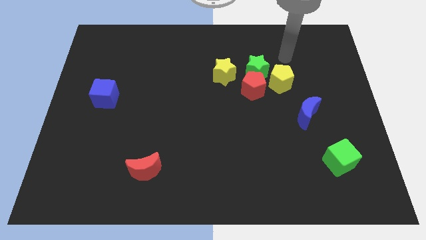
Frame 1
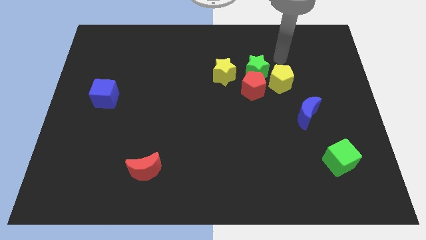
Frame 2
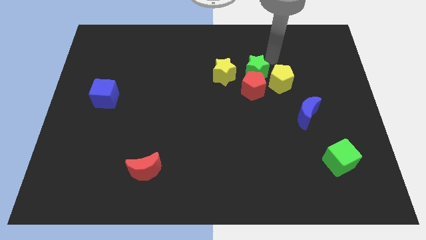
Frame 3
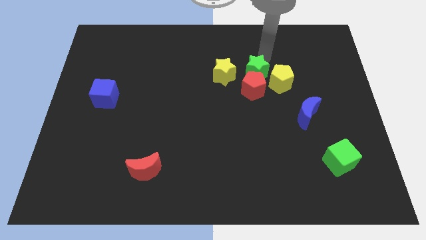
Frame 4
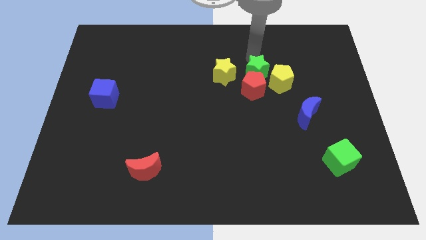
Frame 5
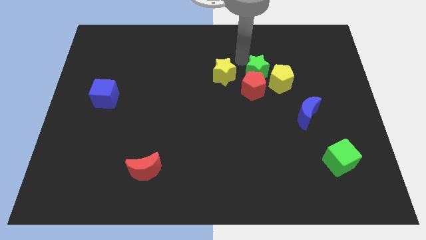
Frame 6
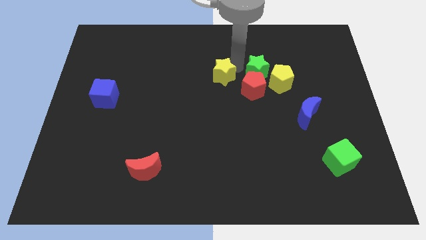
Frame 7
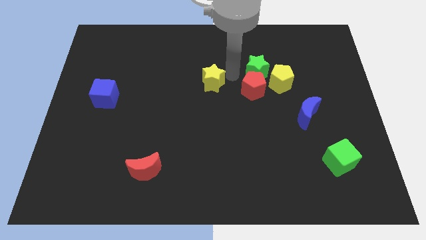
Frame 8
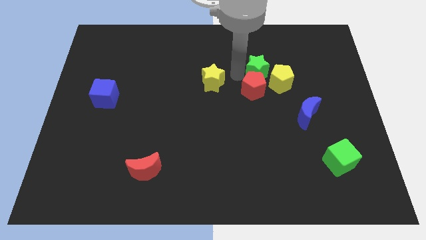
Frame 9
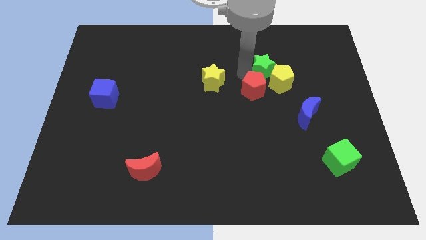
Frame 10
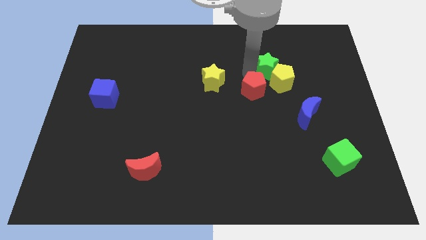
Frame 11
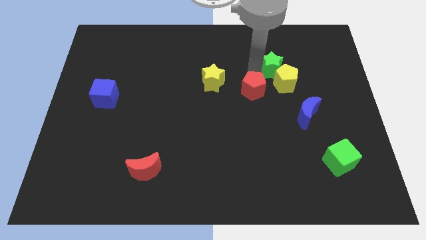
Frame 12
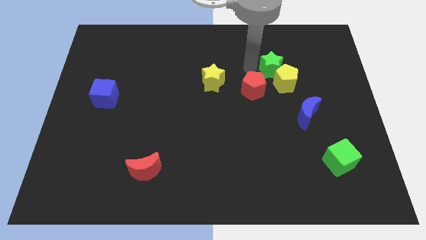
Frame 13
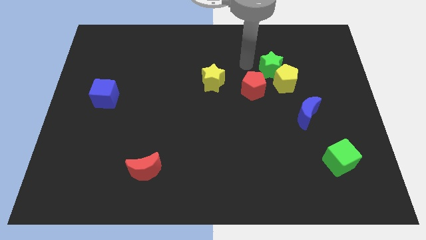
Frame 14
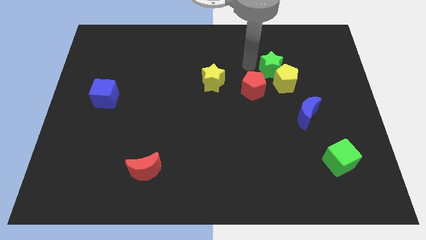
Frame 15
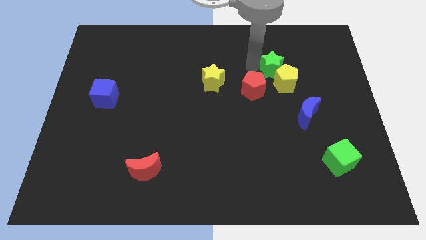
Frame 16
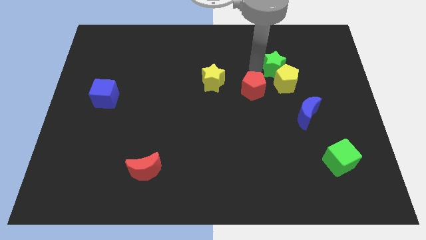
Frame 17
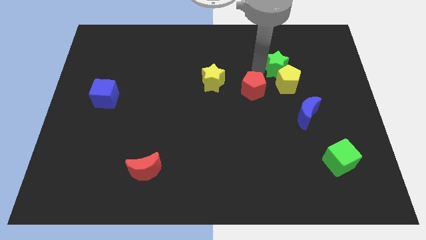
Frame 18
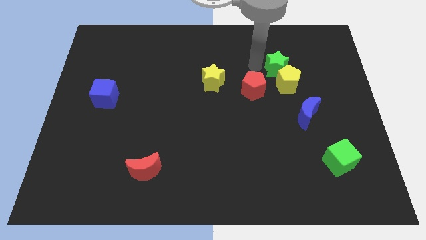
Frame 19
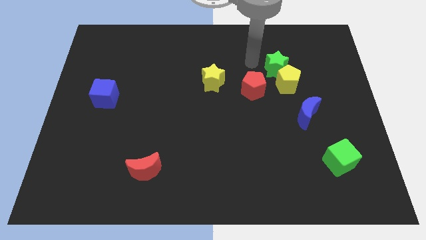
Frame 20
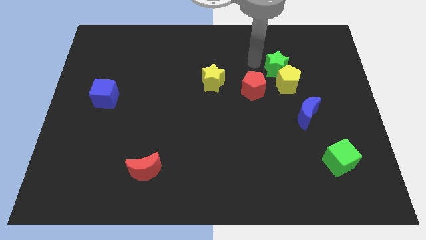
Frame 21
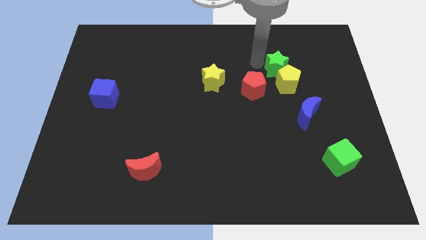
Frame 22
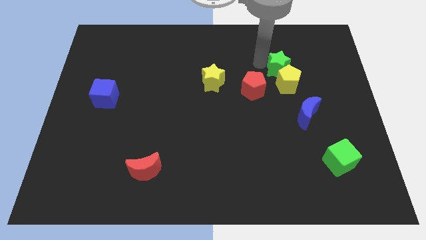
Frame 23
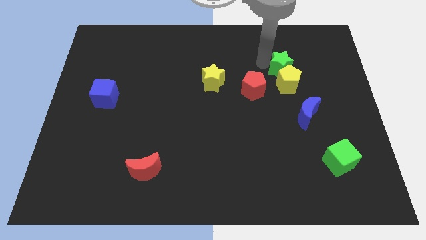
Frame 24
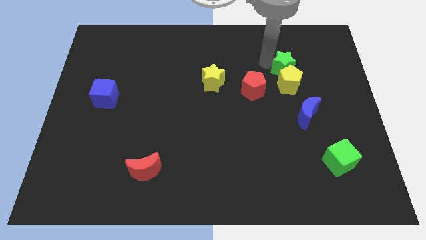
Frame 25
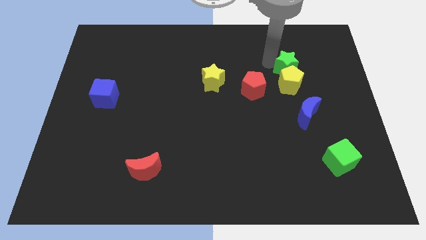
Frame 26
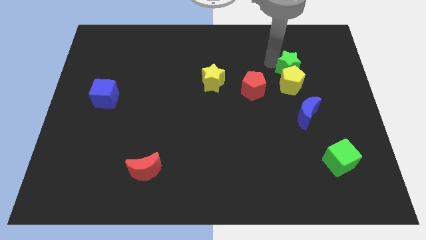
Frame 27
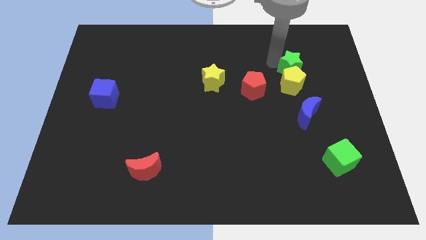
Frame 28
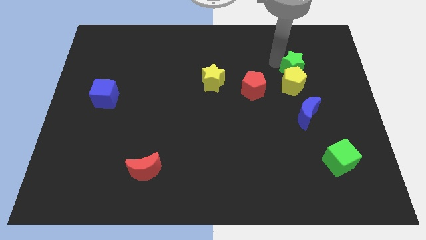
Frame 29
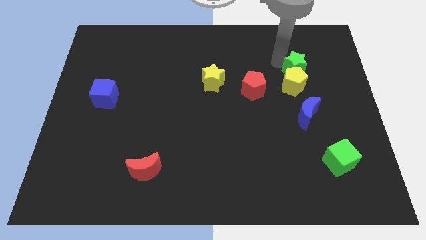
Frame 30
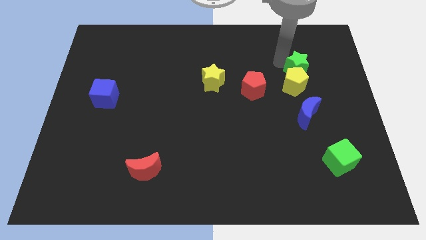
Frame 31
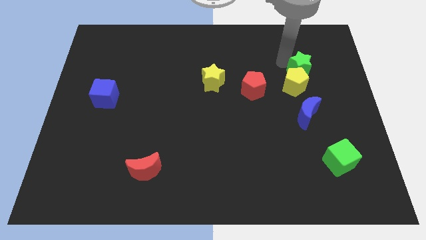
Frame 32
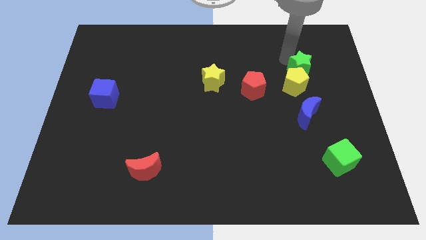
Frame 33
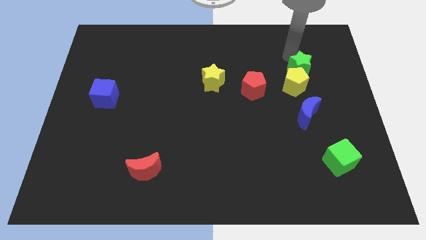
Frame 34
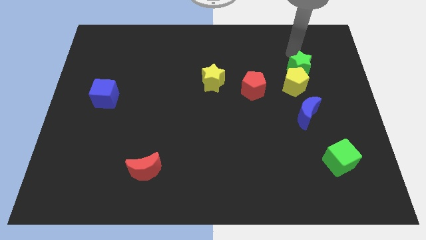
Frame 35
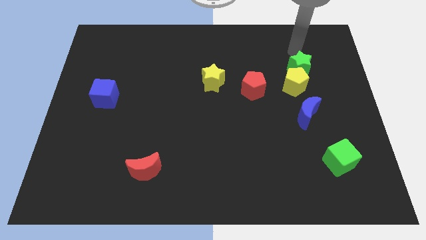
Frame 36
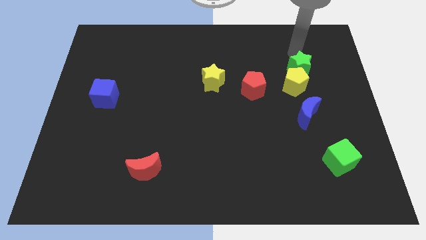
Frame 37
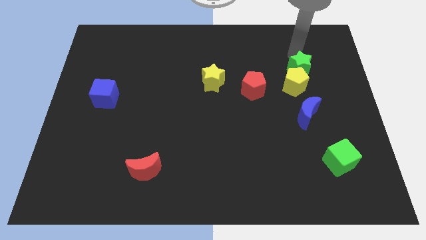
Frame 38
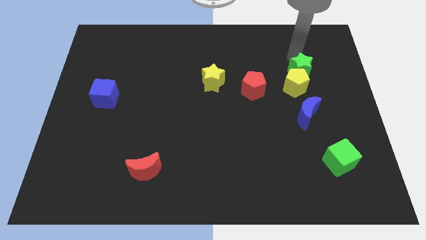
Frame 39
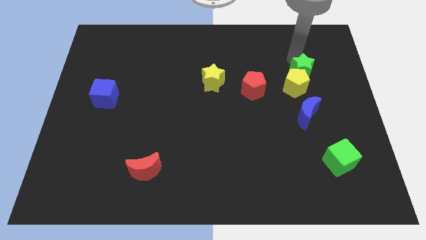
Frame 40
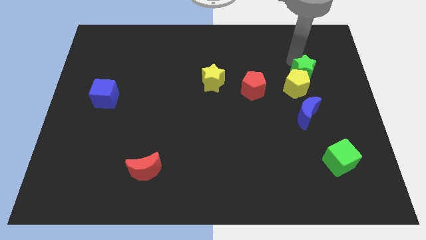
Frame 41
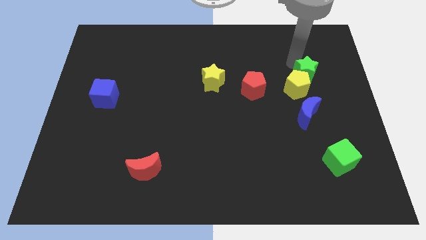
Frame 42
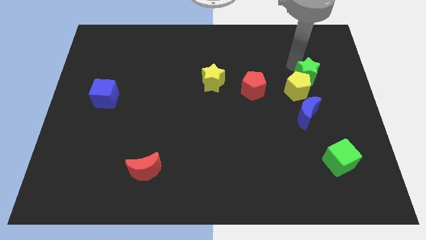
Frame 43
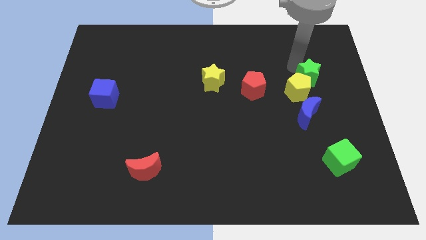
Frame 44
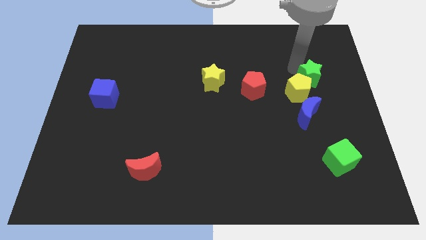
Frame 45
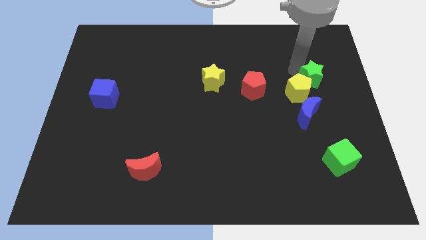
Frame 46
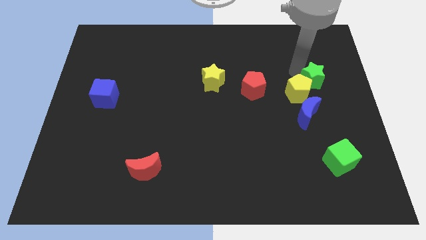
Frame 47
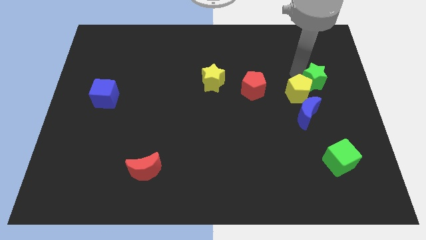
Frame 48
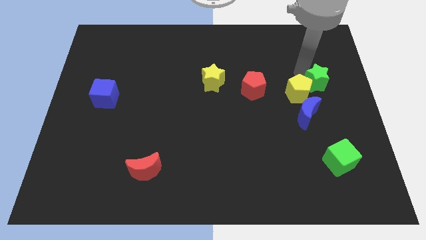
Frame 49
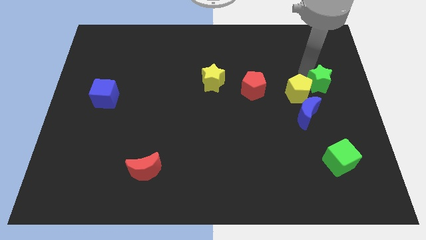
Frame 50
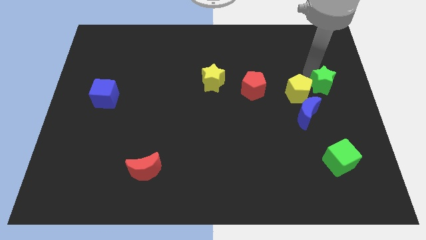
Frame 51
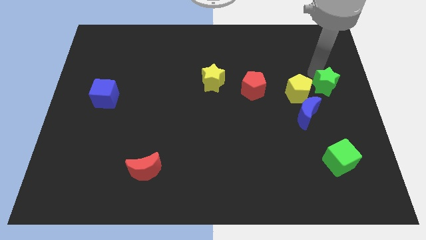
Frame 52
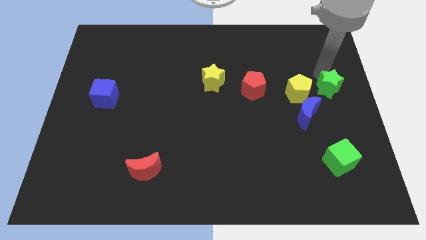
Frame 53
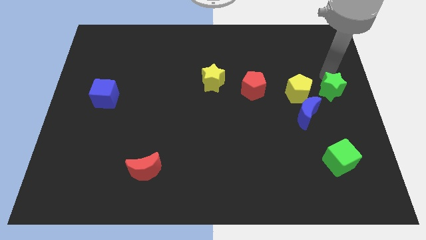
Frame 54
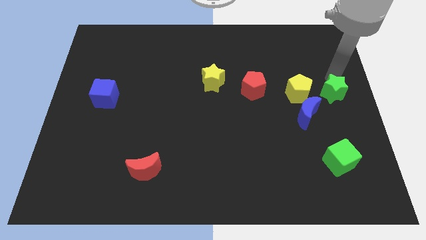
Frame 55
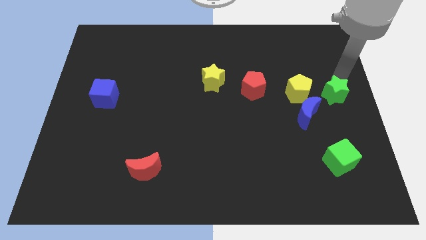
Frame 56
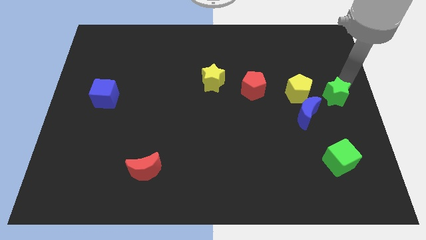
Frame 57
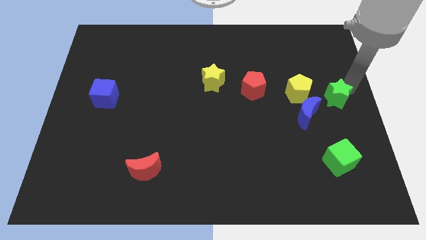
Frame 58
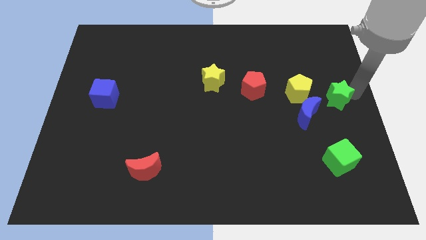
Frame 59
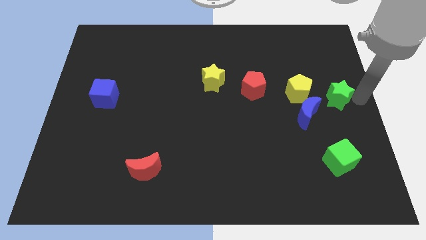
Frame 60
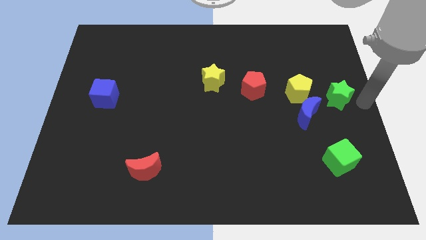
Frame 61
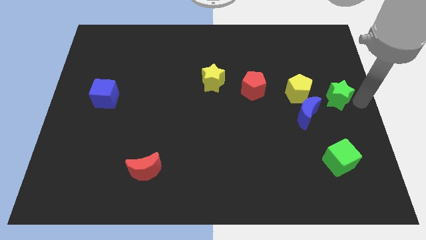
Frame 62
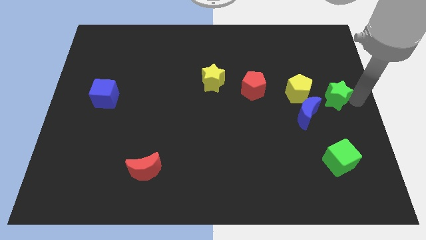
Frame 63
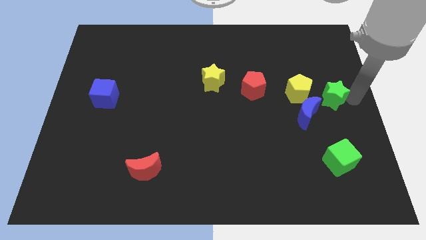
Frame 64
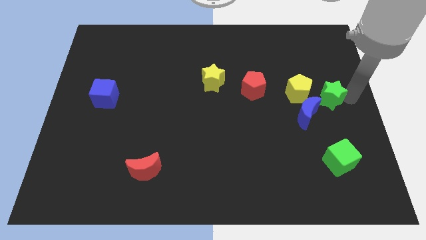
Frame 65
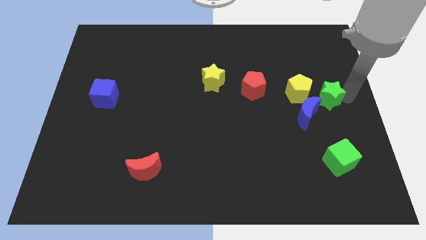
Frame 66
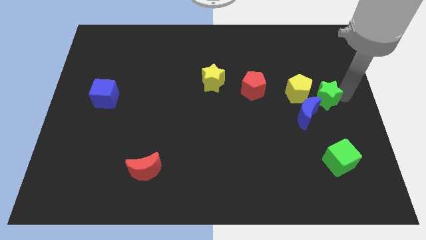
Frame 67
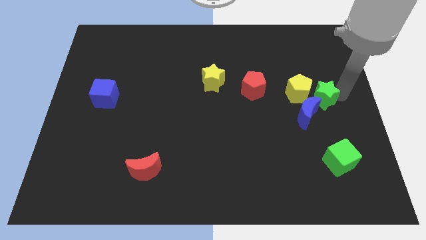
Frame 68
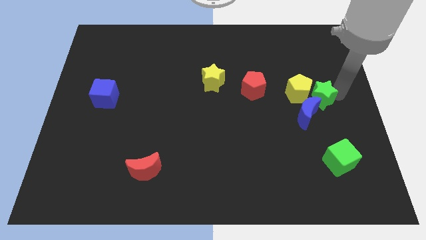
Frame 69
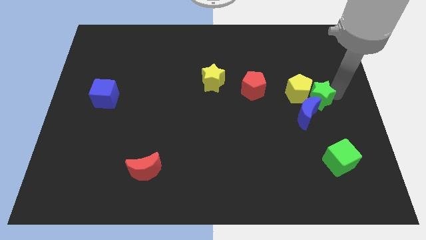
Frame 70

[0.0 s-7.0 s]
push the green star towards the blue moon

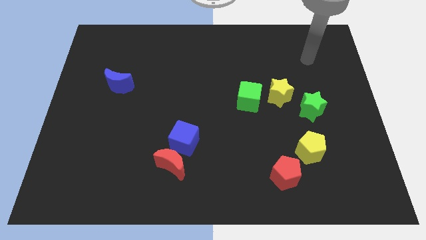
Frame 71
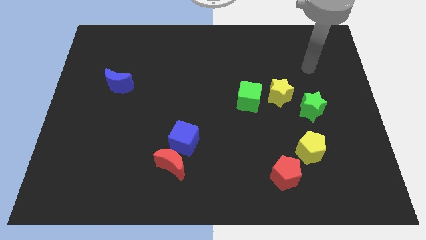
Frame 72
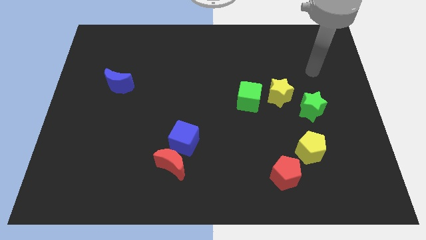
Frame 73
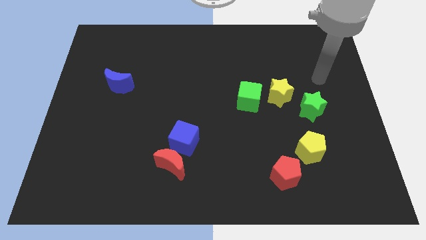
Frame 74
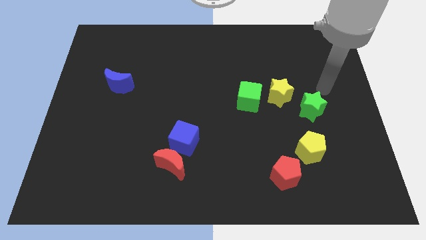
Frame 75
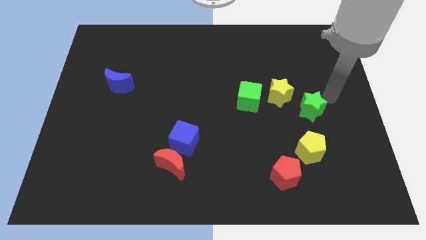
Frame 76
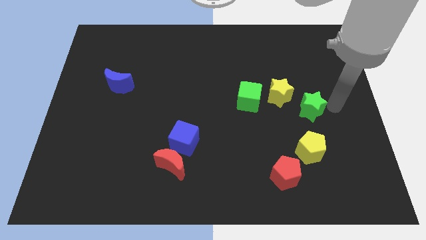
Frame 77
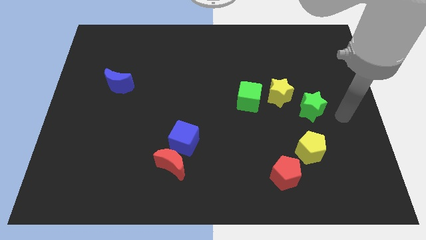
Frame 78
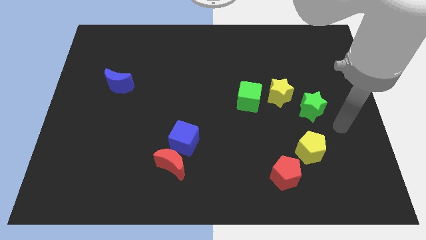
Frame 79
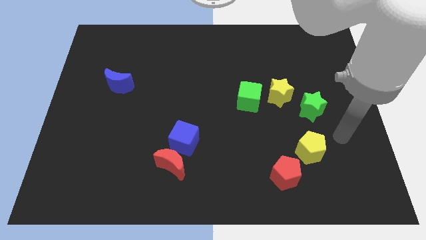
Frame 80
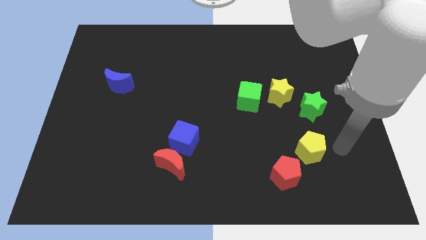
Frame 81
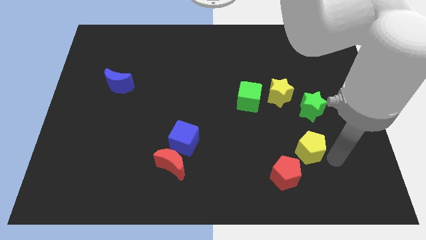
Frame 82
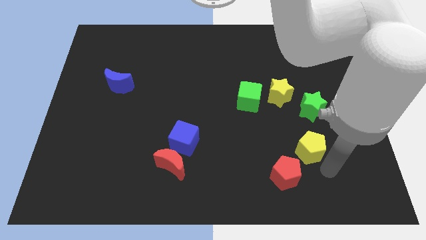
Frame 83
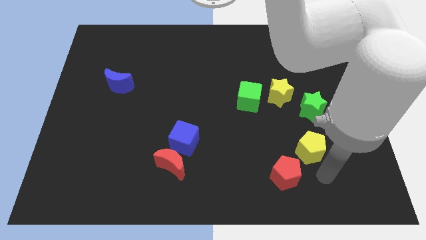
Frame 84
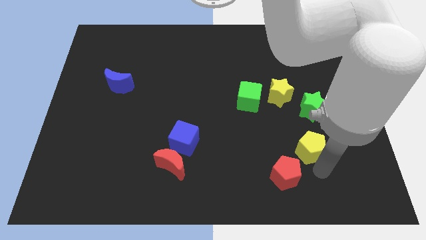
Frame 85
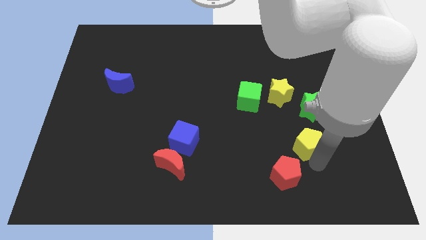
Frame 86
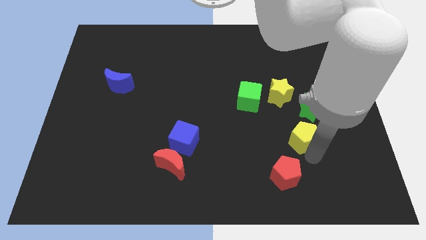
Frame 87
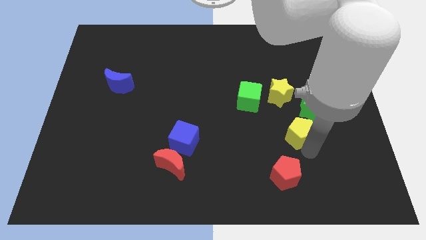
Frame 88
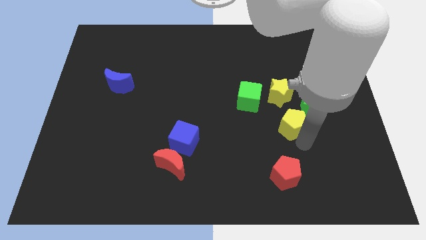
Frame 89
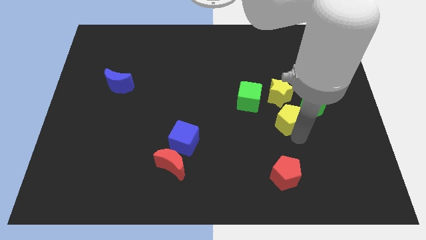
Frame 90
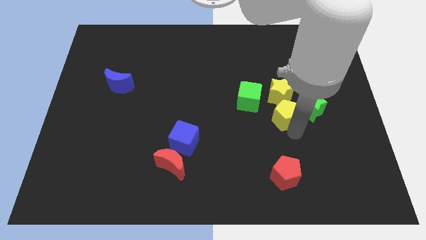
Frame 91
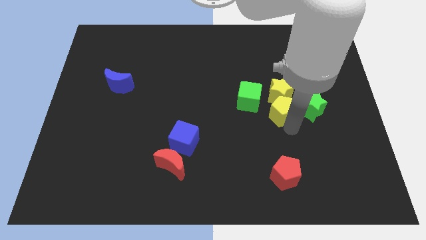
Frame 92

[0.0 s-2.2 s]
put the yellow pentagon close to the yellow star
